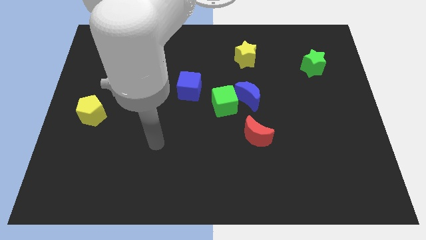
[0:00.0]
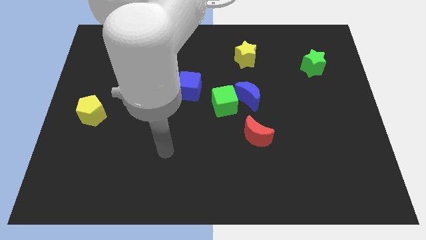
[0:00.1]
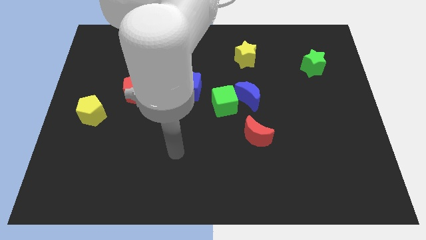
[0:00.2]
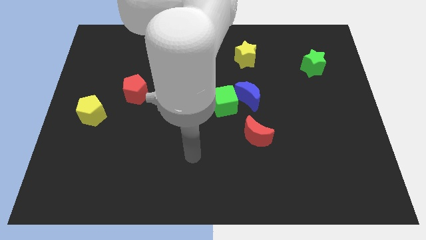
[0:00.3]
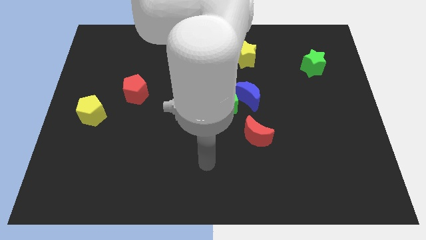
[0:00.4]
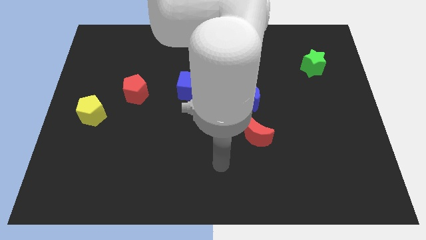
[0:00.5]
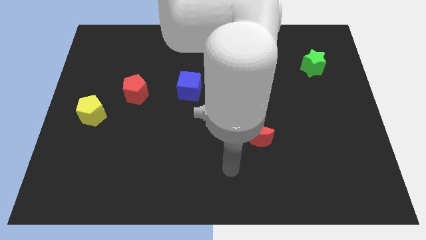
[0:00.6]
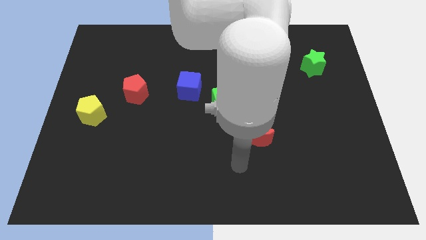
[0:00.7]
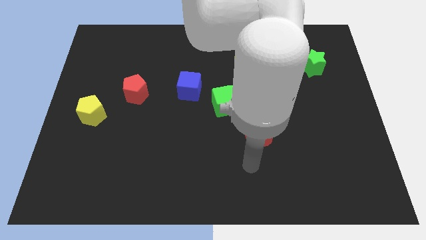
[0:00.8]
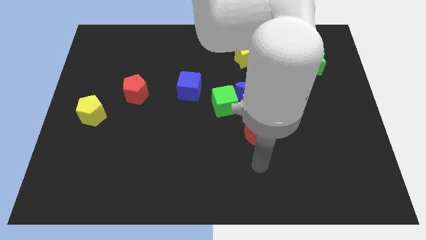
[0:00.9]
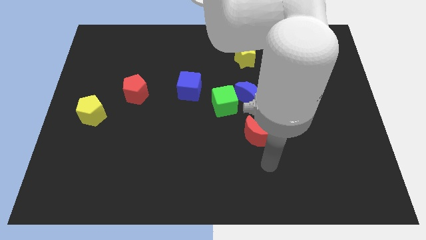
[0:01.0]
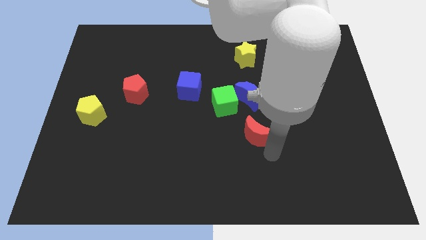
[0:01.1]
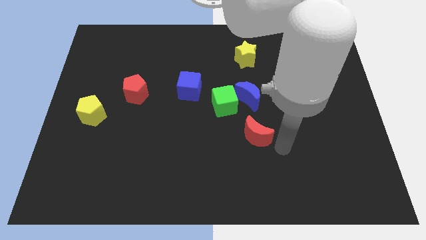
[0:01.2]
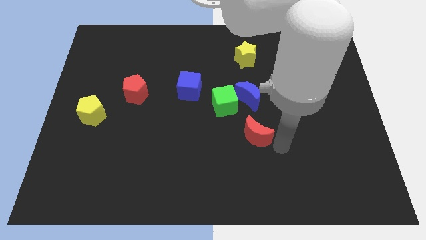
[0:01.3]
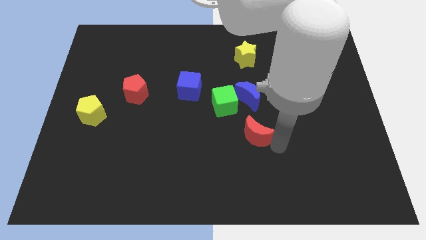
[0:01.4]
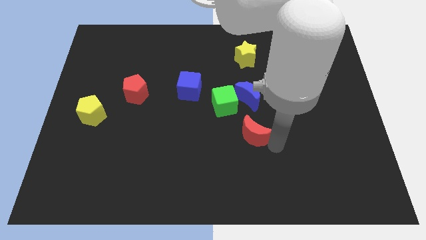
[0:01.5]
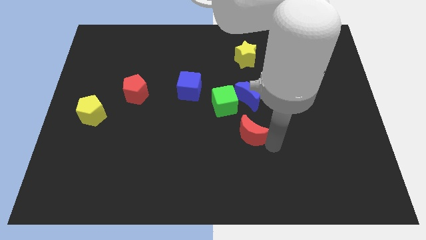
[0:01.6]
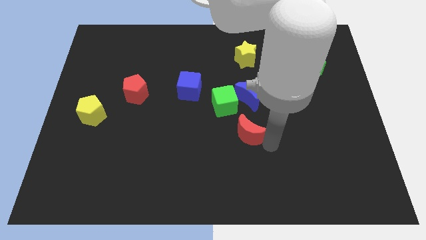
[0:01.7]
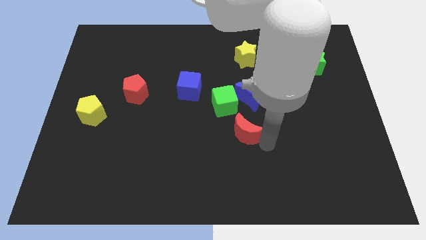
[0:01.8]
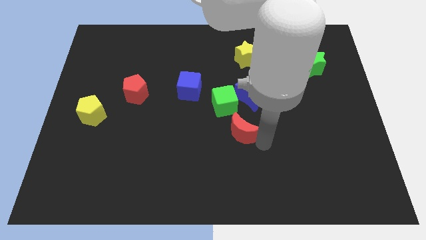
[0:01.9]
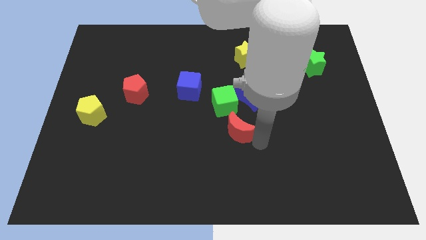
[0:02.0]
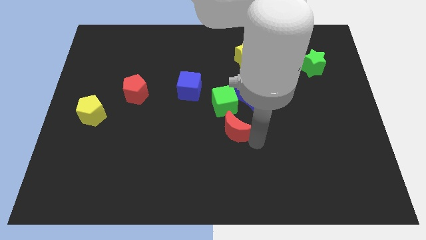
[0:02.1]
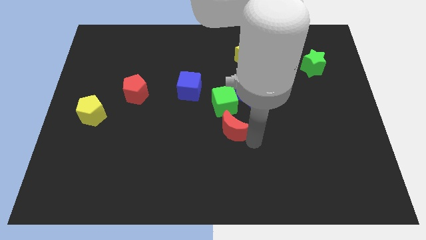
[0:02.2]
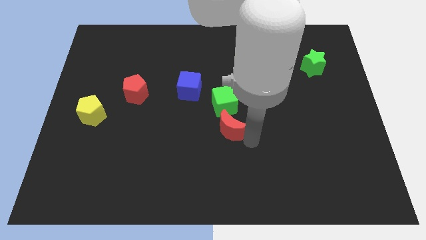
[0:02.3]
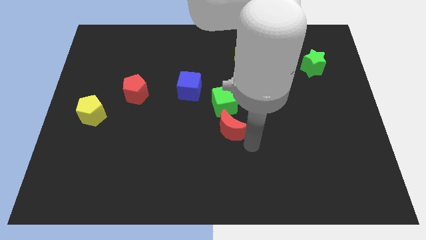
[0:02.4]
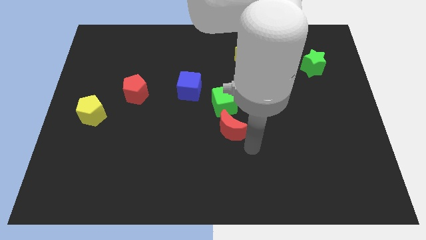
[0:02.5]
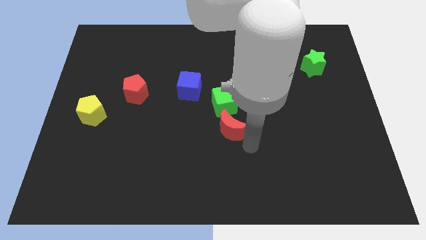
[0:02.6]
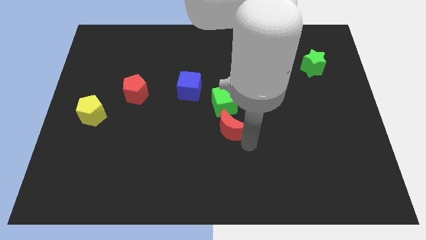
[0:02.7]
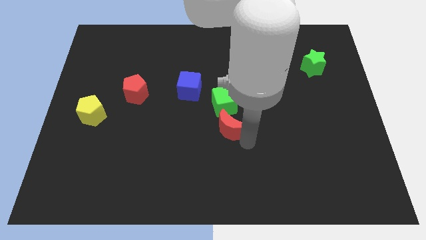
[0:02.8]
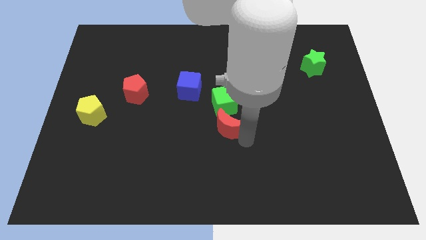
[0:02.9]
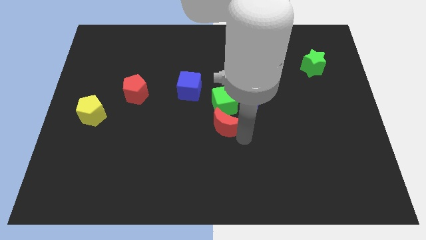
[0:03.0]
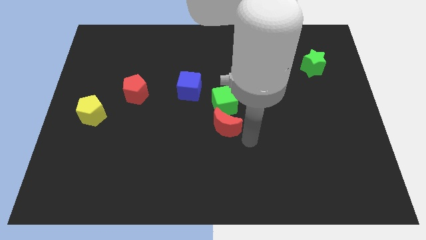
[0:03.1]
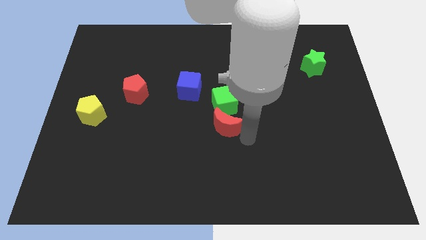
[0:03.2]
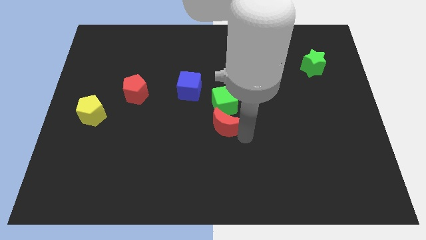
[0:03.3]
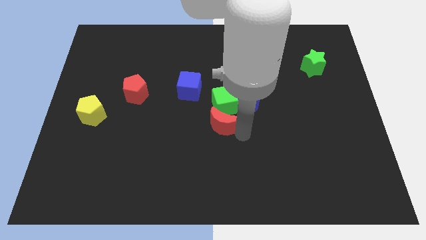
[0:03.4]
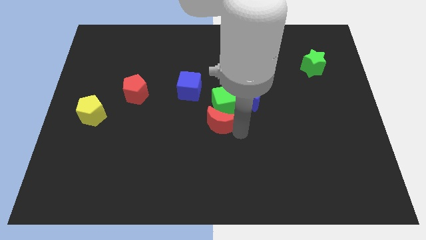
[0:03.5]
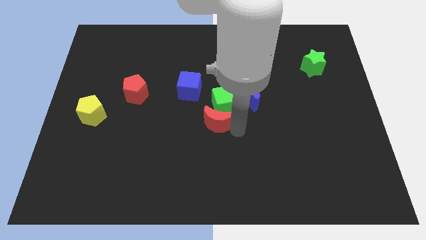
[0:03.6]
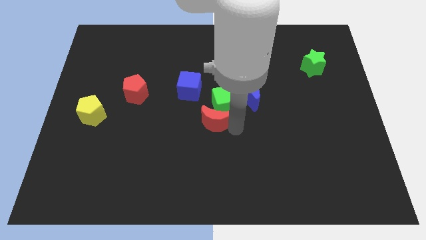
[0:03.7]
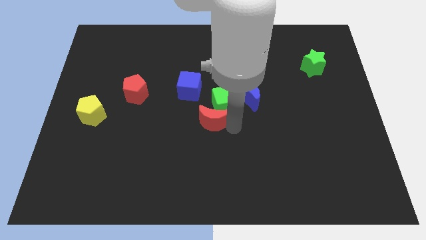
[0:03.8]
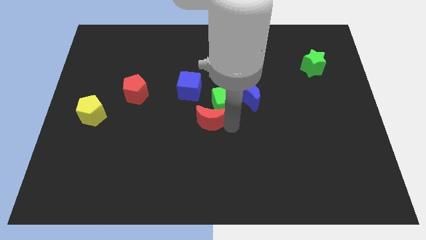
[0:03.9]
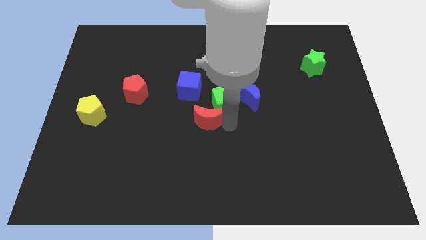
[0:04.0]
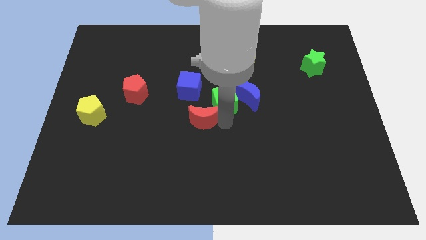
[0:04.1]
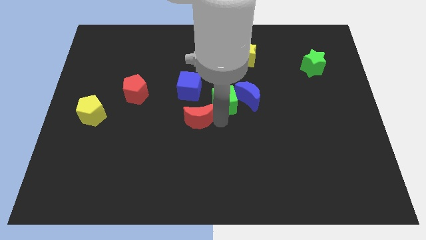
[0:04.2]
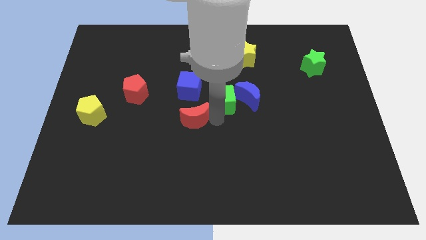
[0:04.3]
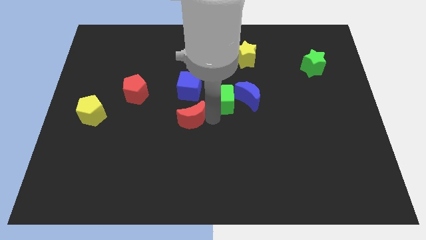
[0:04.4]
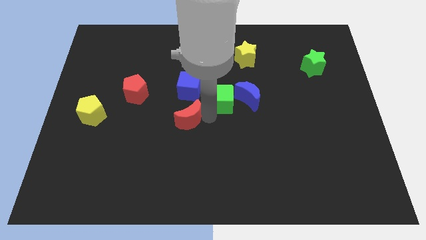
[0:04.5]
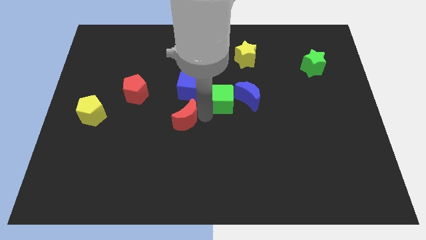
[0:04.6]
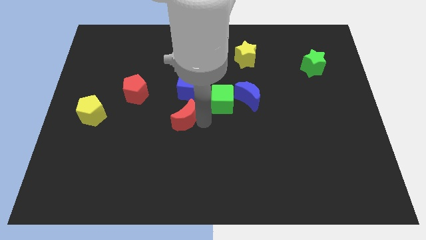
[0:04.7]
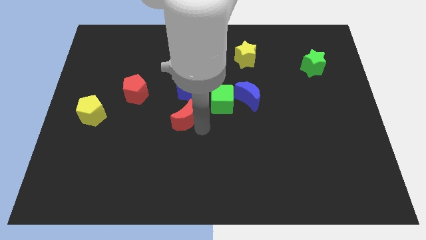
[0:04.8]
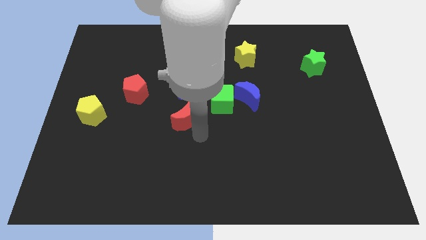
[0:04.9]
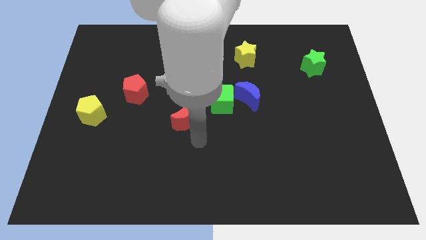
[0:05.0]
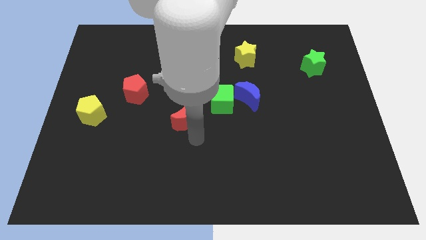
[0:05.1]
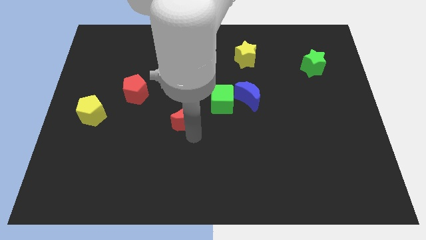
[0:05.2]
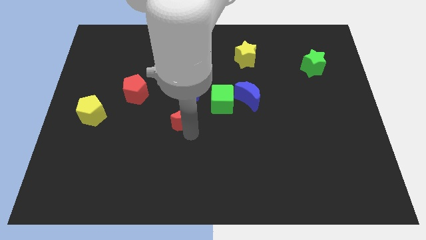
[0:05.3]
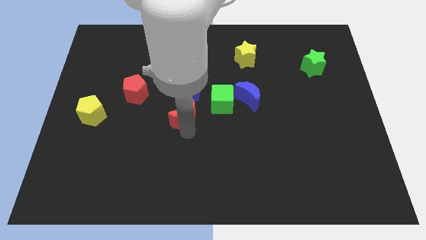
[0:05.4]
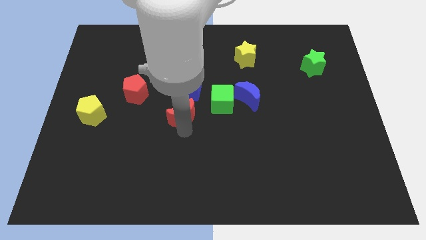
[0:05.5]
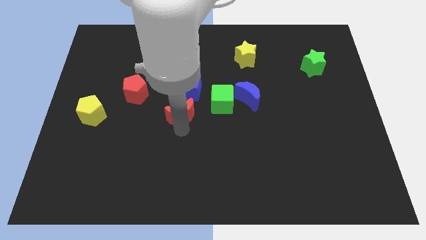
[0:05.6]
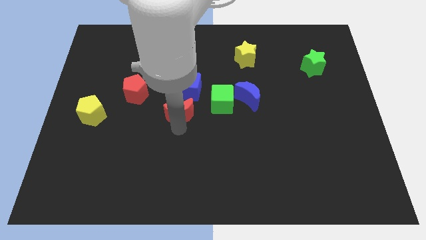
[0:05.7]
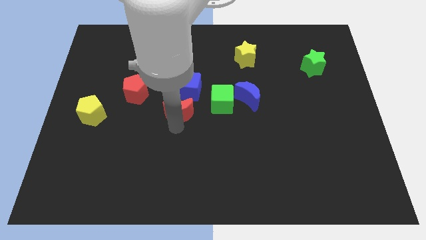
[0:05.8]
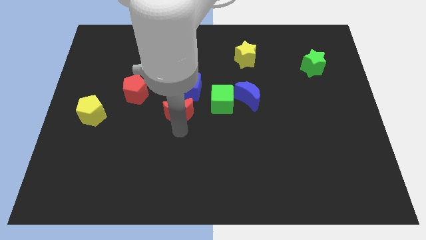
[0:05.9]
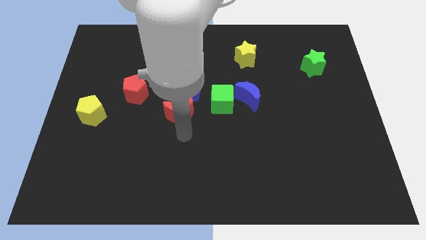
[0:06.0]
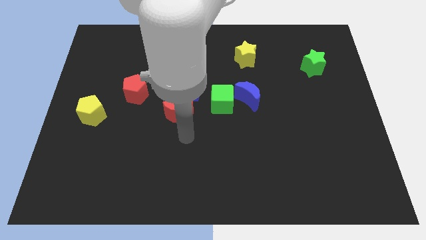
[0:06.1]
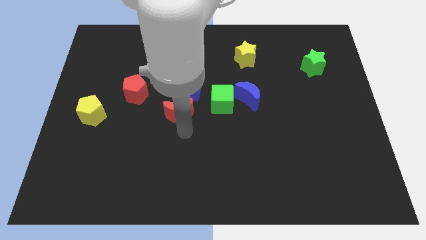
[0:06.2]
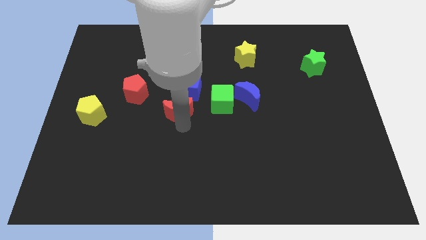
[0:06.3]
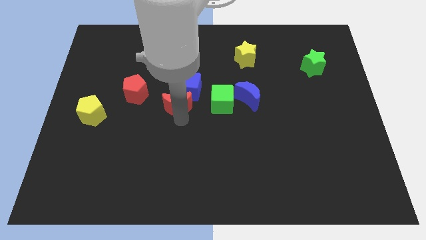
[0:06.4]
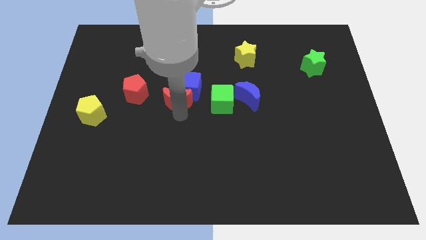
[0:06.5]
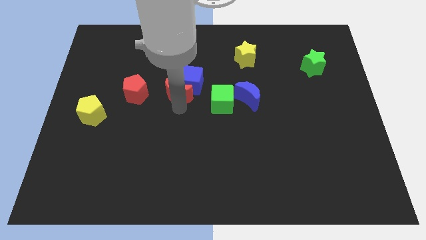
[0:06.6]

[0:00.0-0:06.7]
move the red moon up and then left

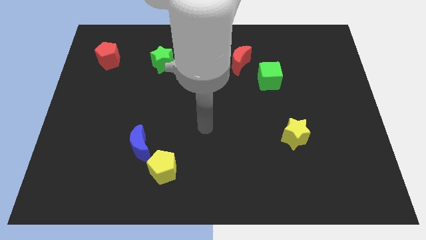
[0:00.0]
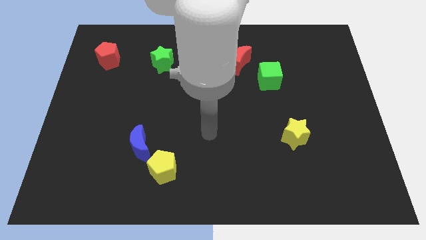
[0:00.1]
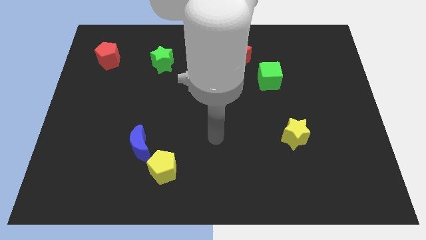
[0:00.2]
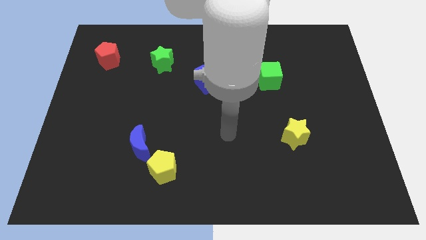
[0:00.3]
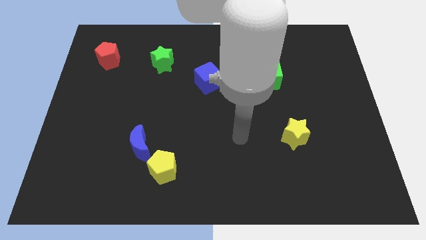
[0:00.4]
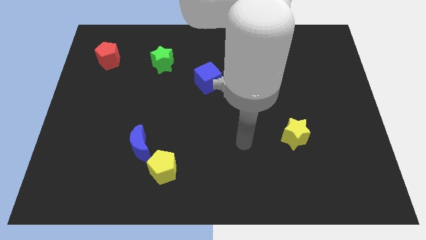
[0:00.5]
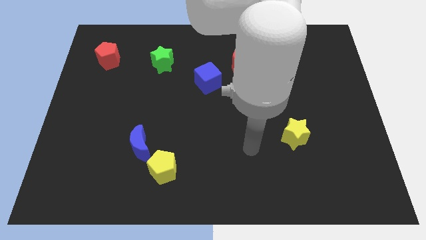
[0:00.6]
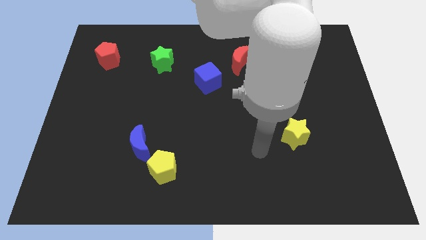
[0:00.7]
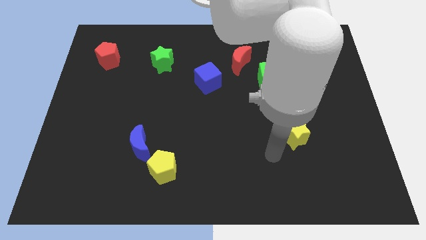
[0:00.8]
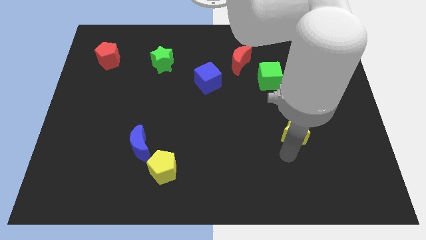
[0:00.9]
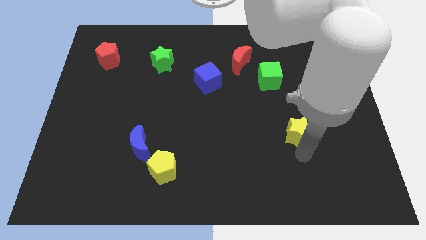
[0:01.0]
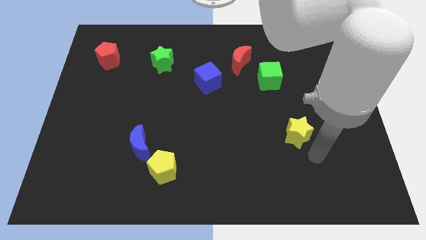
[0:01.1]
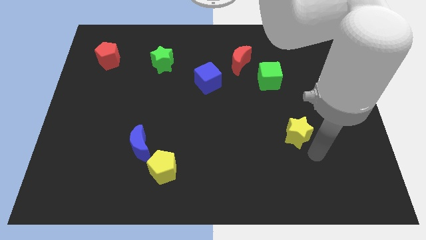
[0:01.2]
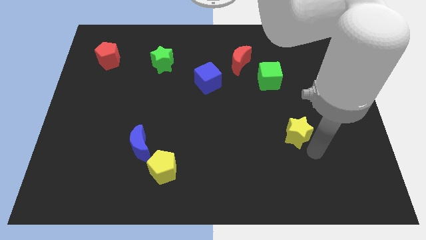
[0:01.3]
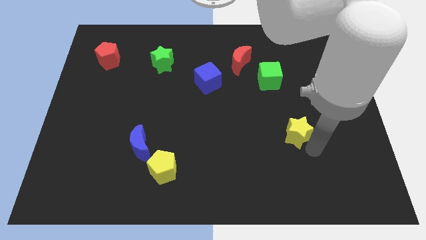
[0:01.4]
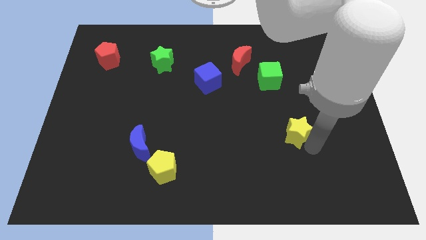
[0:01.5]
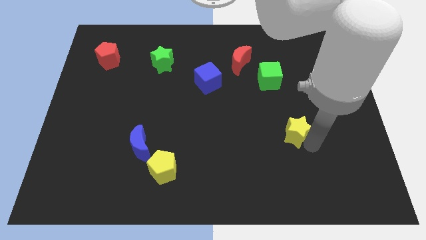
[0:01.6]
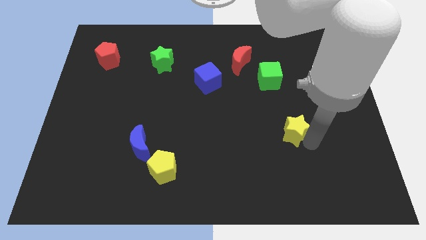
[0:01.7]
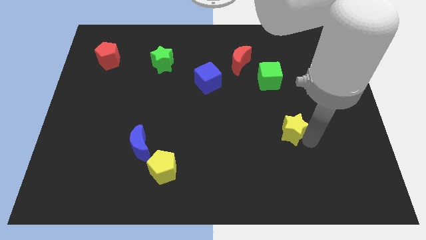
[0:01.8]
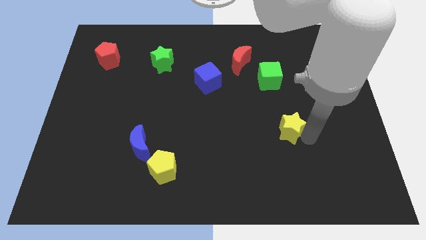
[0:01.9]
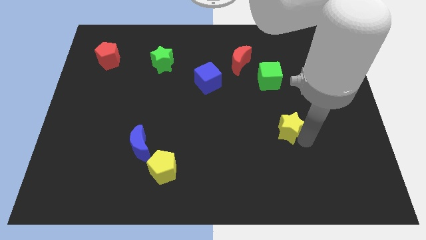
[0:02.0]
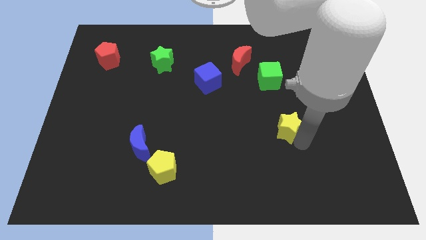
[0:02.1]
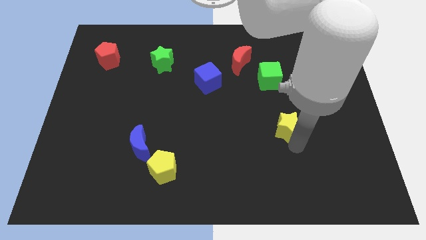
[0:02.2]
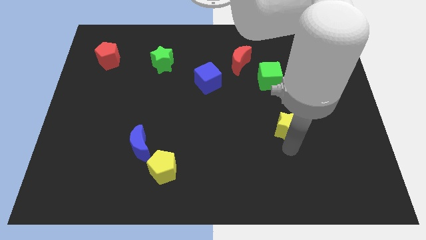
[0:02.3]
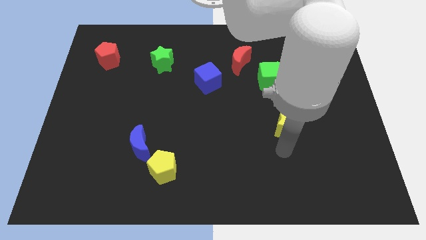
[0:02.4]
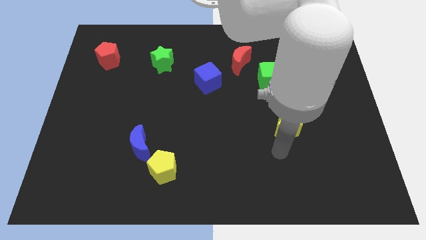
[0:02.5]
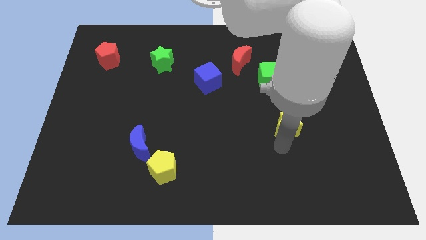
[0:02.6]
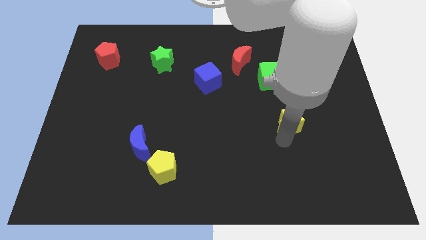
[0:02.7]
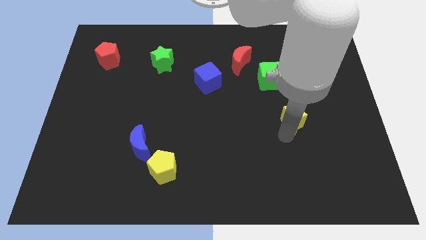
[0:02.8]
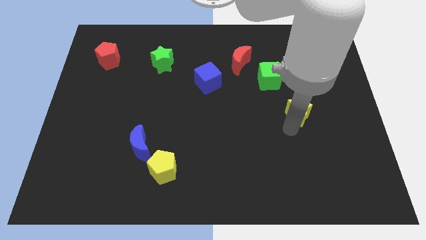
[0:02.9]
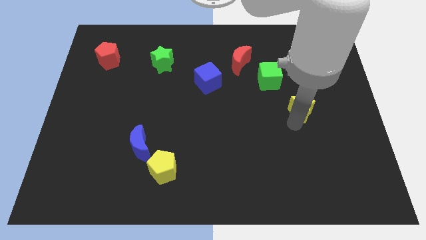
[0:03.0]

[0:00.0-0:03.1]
move the yellow star upwards slightly
